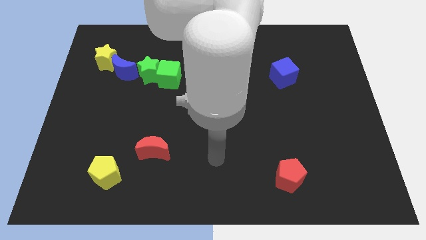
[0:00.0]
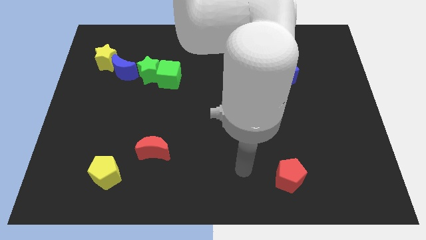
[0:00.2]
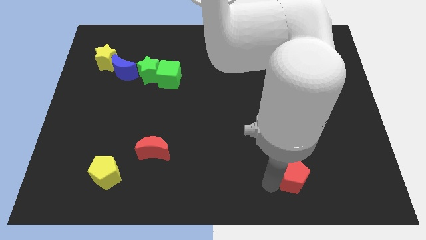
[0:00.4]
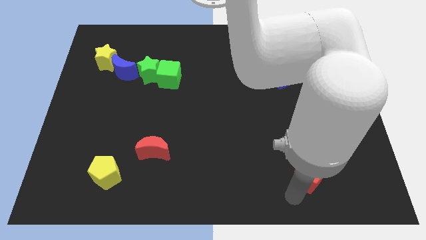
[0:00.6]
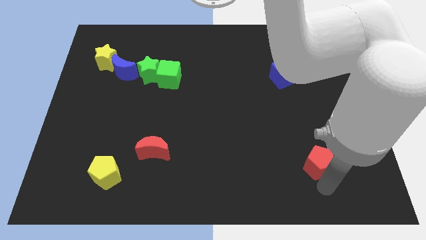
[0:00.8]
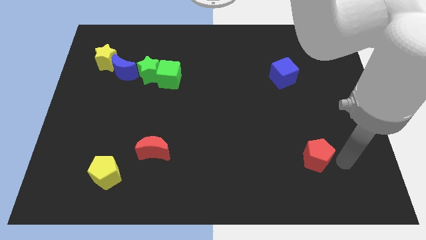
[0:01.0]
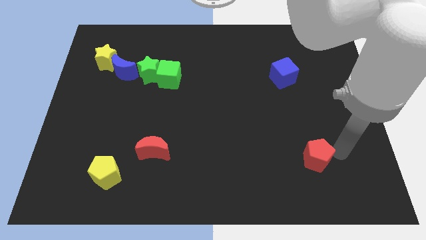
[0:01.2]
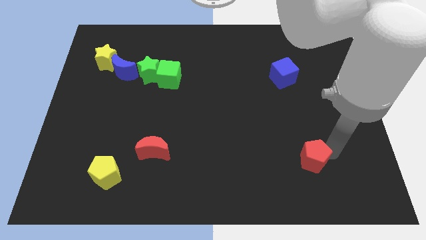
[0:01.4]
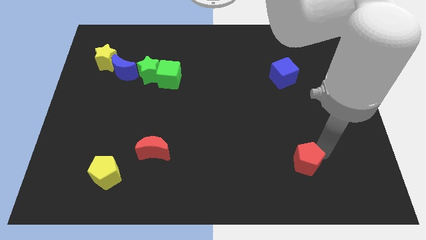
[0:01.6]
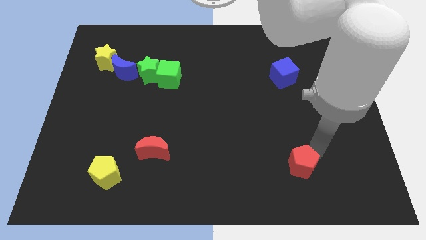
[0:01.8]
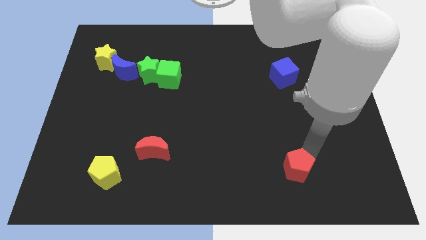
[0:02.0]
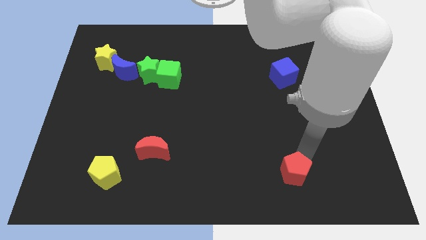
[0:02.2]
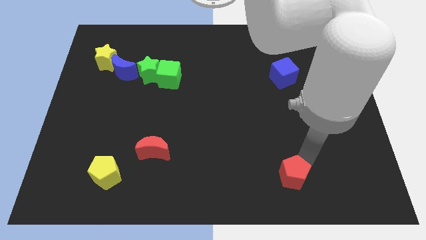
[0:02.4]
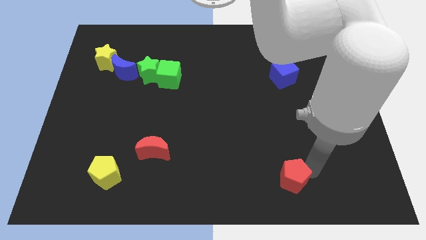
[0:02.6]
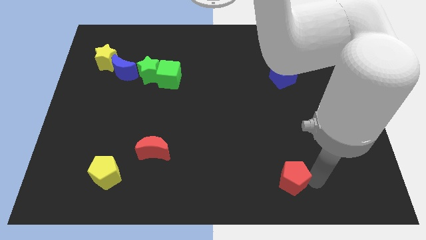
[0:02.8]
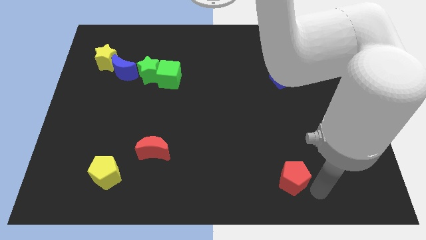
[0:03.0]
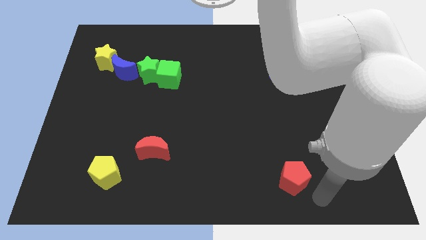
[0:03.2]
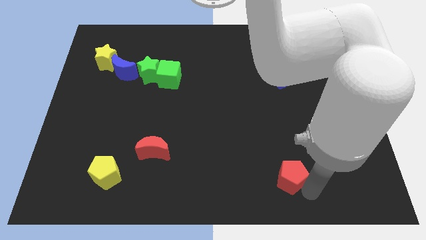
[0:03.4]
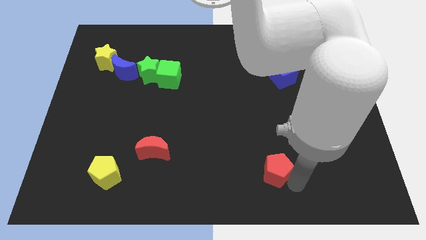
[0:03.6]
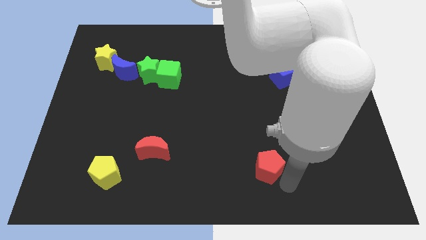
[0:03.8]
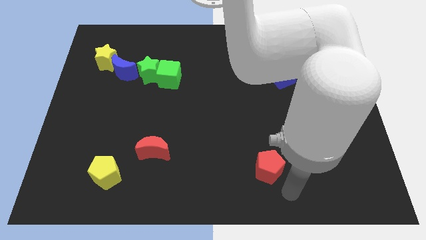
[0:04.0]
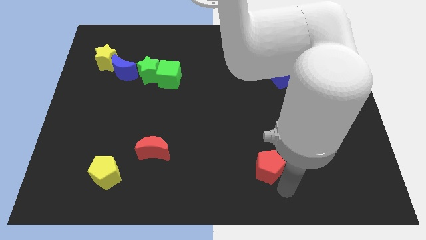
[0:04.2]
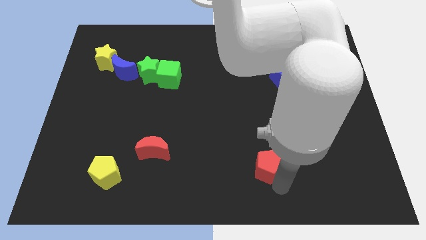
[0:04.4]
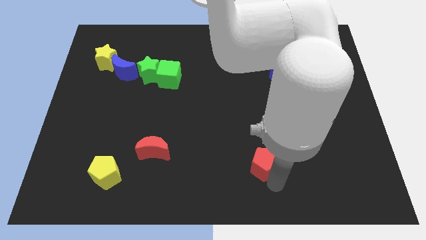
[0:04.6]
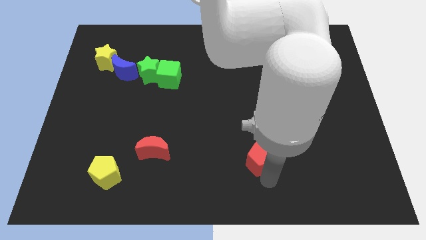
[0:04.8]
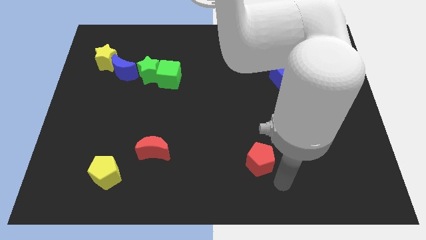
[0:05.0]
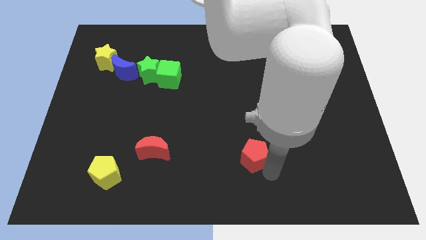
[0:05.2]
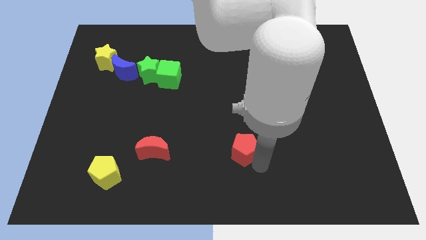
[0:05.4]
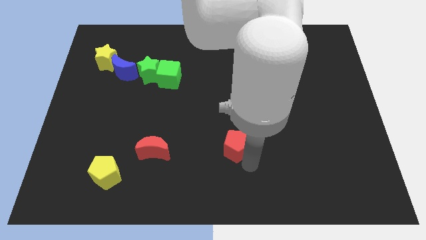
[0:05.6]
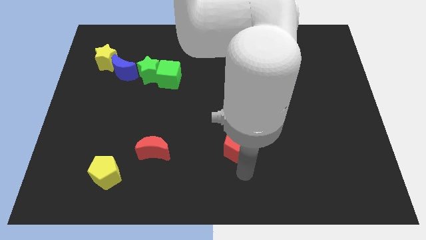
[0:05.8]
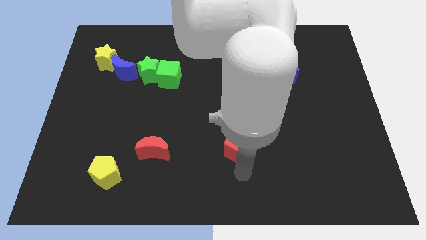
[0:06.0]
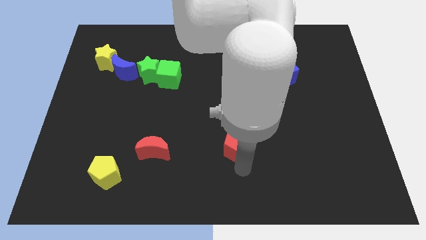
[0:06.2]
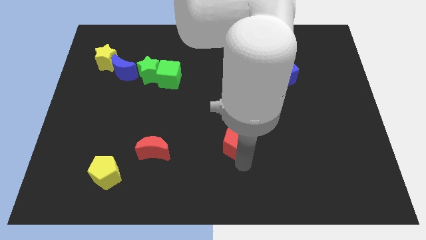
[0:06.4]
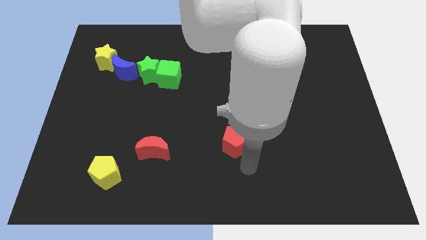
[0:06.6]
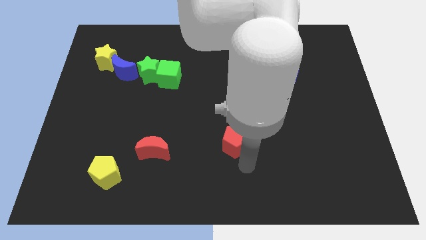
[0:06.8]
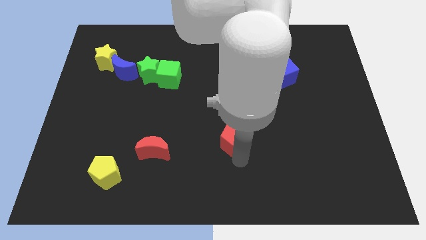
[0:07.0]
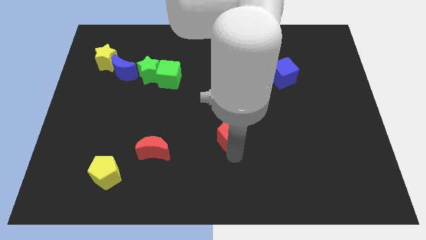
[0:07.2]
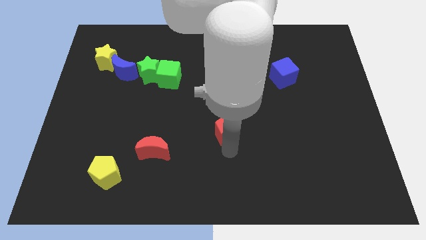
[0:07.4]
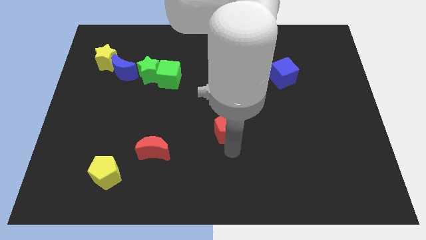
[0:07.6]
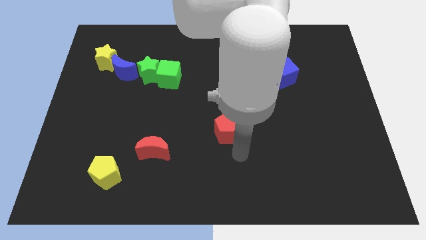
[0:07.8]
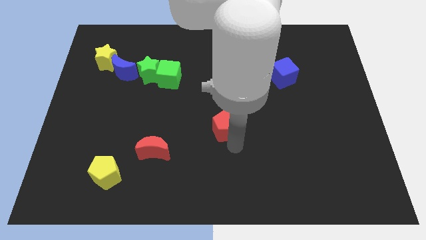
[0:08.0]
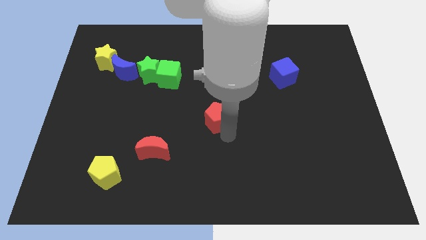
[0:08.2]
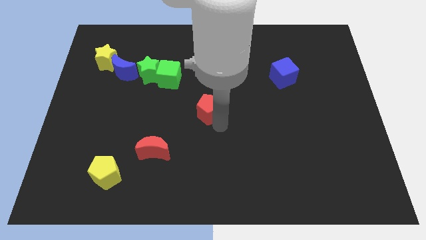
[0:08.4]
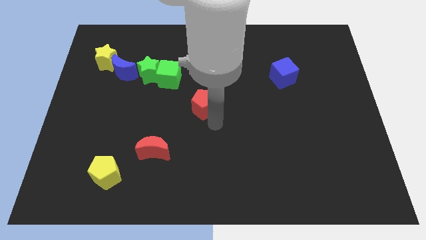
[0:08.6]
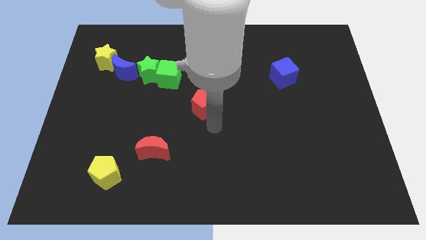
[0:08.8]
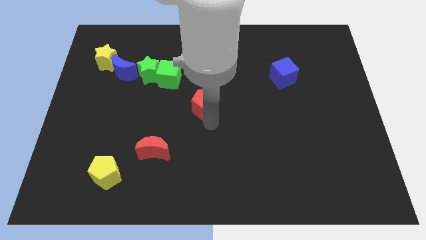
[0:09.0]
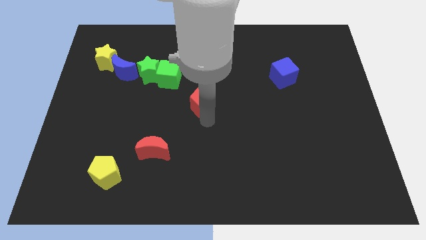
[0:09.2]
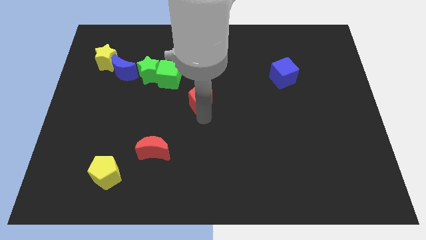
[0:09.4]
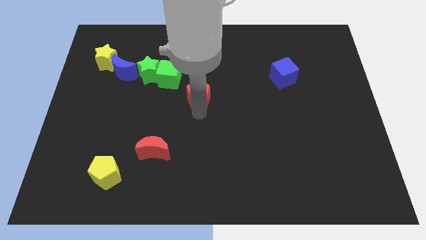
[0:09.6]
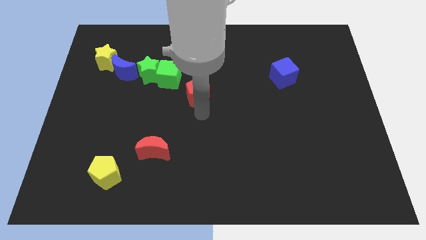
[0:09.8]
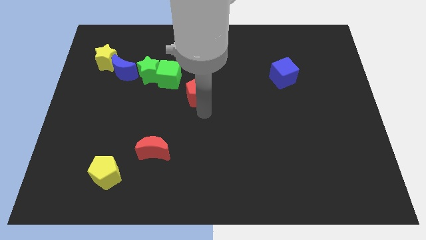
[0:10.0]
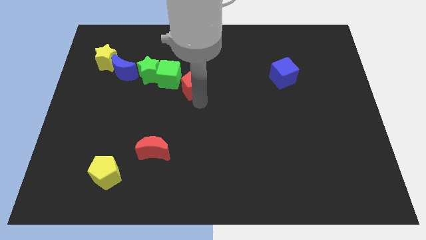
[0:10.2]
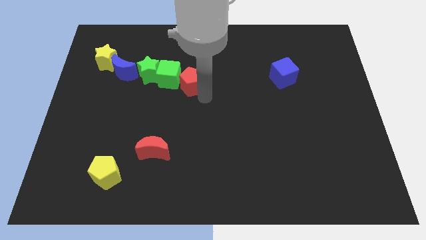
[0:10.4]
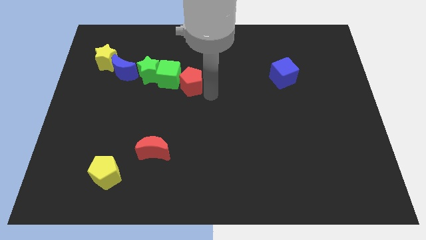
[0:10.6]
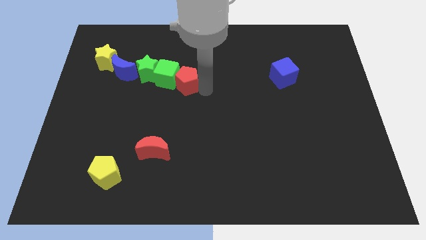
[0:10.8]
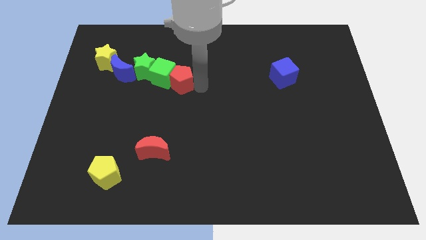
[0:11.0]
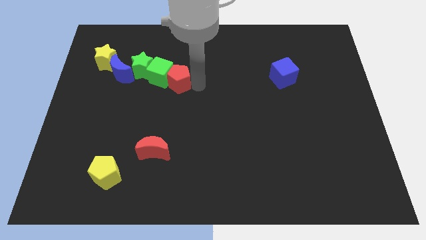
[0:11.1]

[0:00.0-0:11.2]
push the red pentagon right of the blue moon

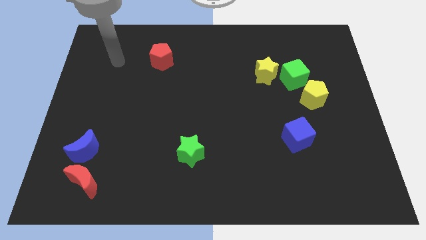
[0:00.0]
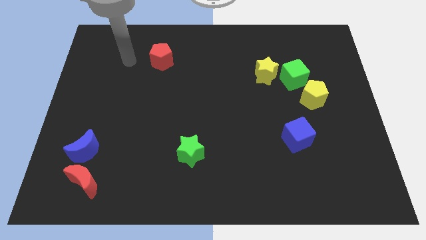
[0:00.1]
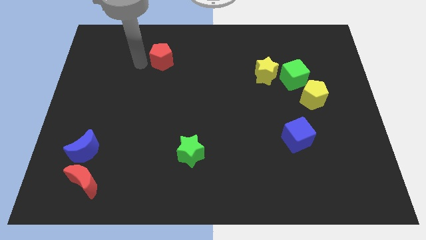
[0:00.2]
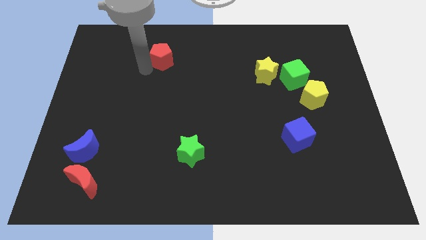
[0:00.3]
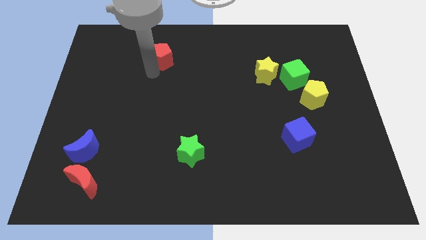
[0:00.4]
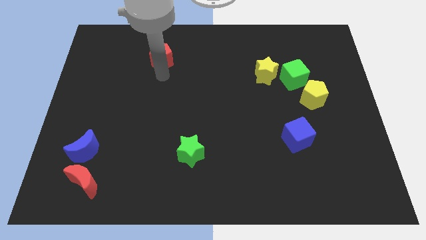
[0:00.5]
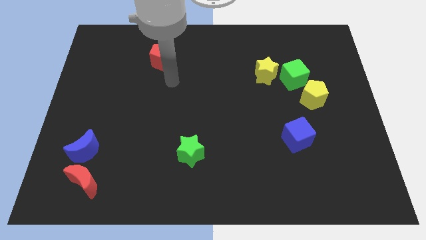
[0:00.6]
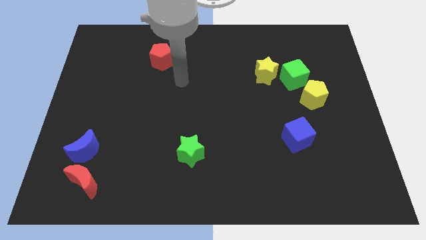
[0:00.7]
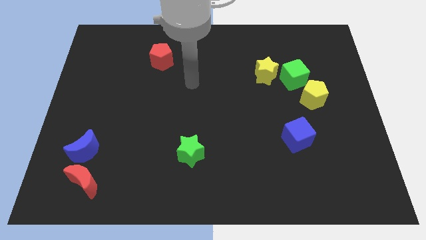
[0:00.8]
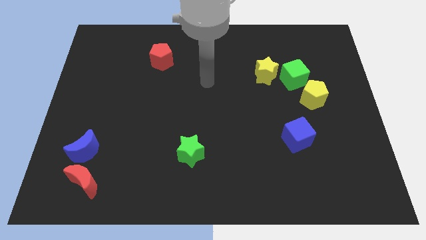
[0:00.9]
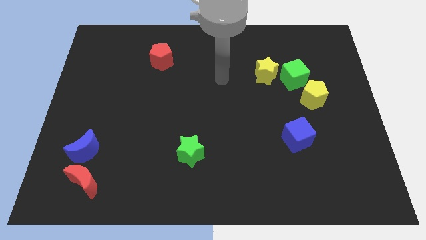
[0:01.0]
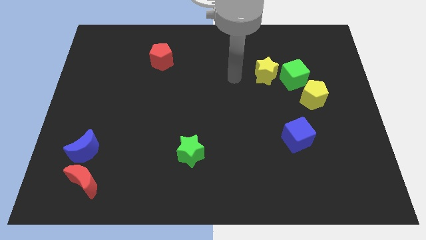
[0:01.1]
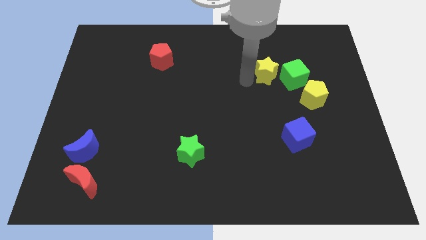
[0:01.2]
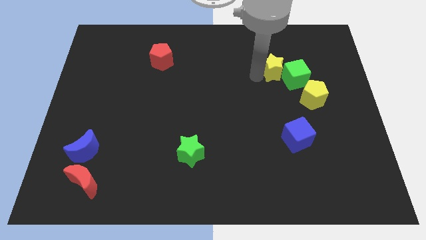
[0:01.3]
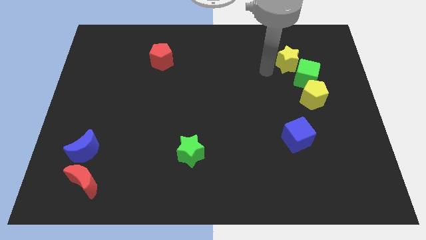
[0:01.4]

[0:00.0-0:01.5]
push the green cube to the top right of the yellow pentagon

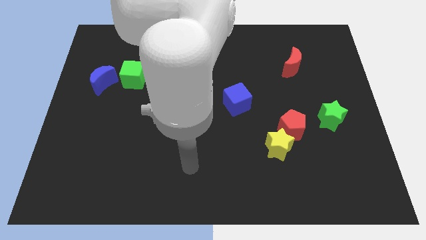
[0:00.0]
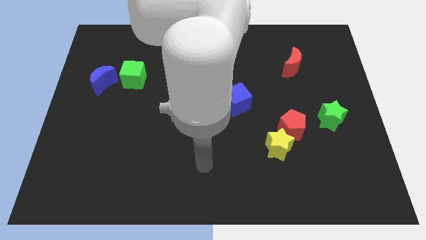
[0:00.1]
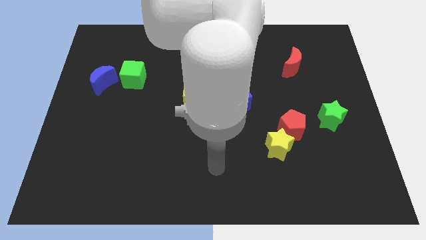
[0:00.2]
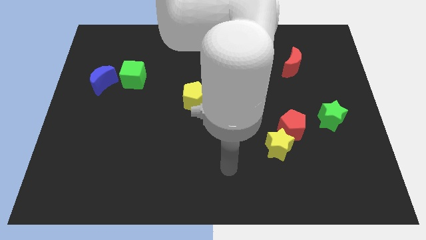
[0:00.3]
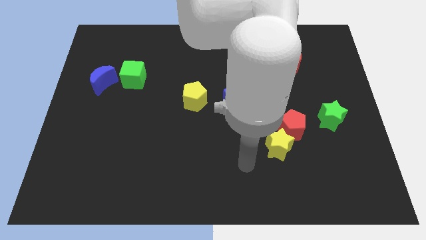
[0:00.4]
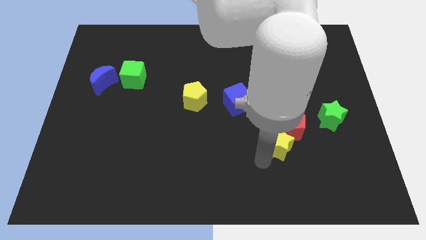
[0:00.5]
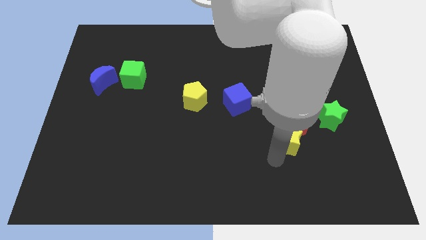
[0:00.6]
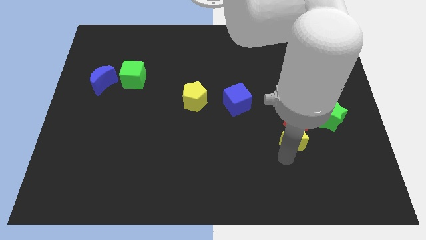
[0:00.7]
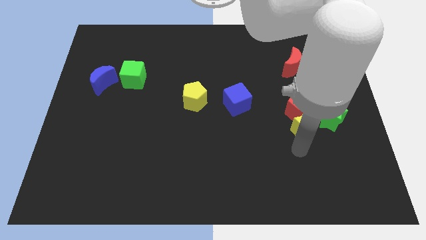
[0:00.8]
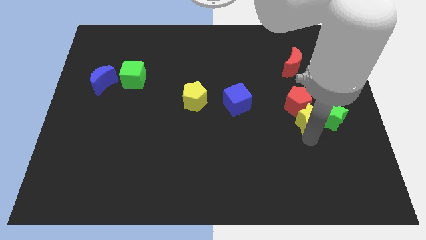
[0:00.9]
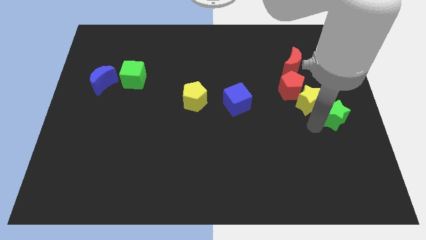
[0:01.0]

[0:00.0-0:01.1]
move the red pentagon to the bottom left side of the red moon
